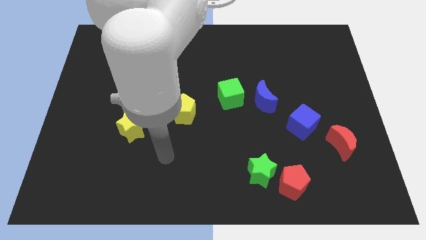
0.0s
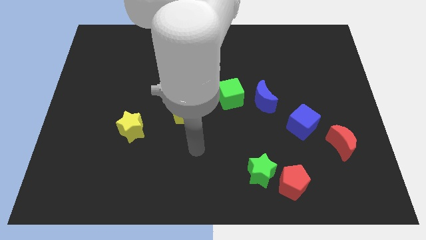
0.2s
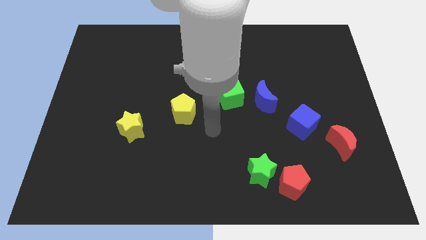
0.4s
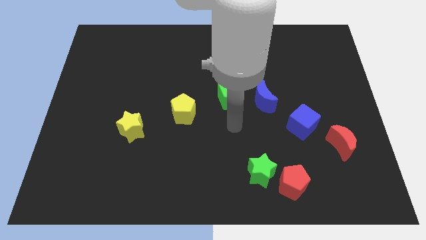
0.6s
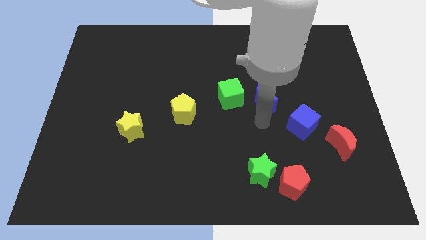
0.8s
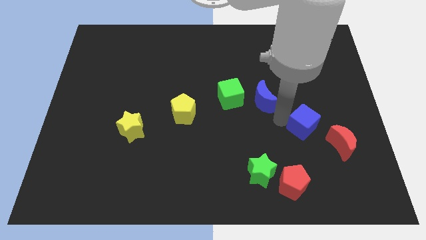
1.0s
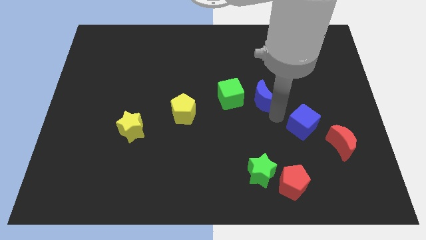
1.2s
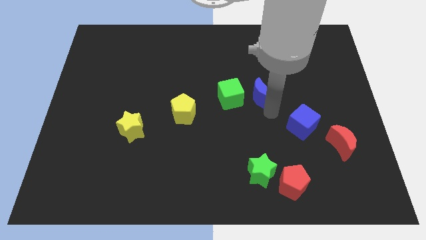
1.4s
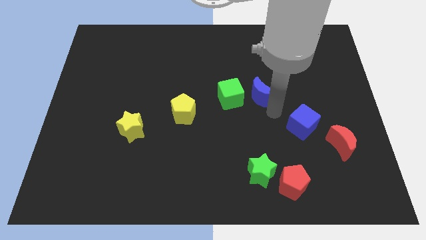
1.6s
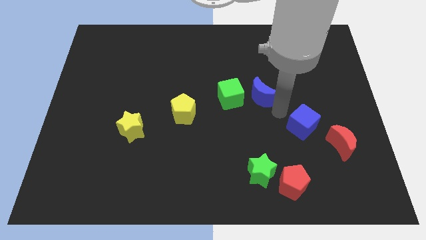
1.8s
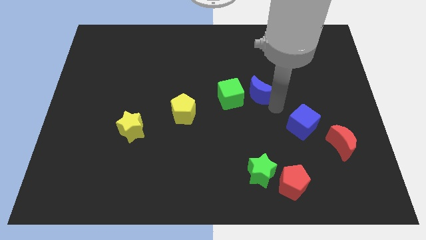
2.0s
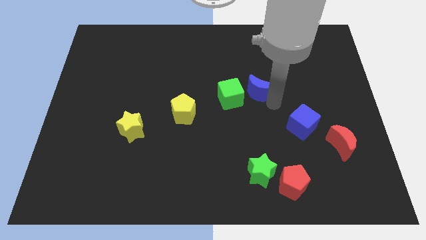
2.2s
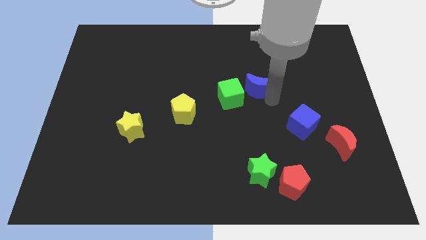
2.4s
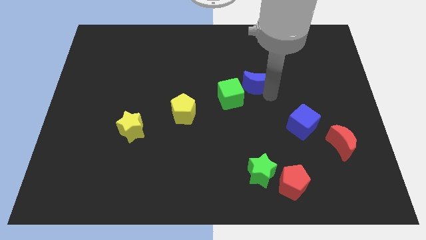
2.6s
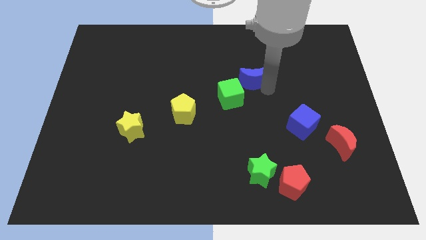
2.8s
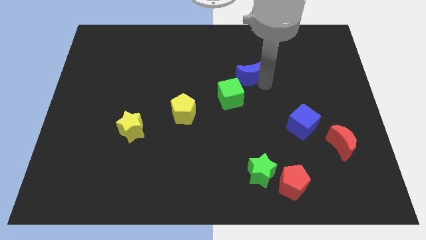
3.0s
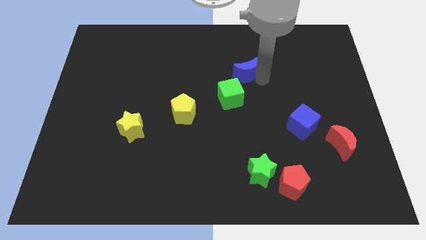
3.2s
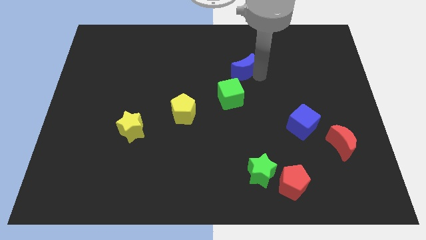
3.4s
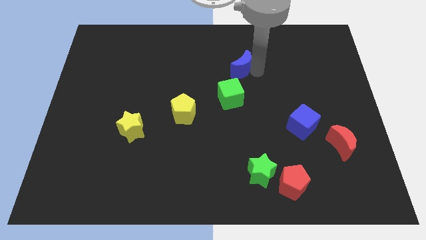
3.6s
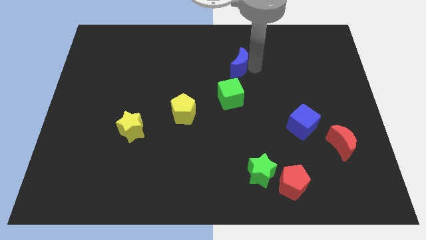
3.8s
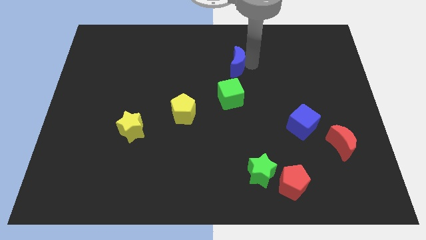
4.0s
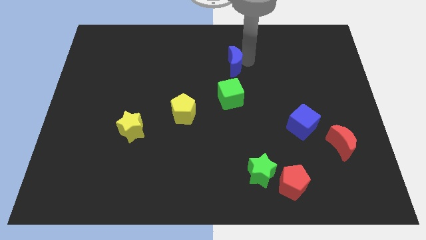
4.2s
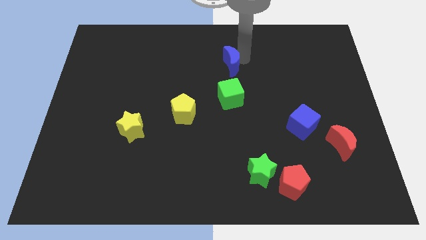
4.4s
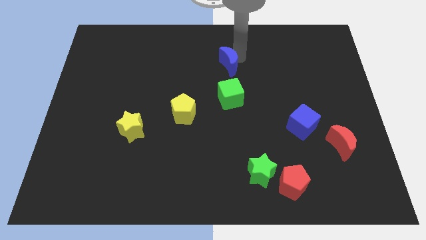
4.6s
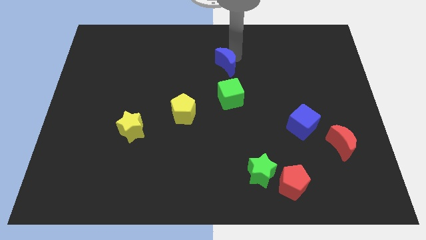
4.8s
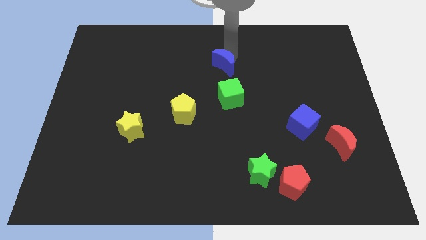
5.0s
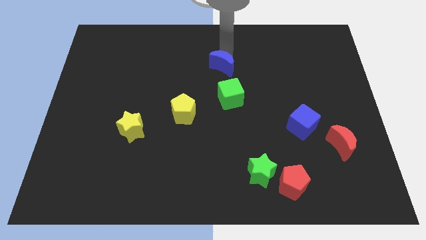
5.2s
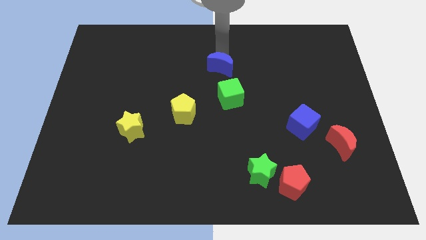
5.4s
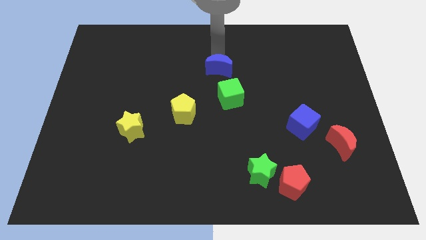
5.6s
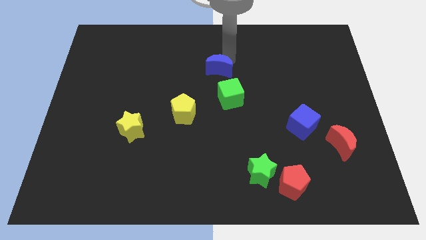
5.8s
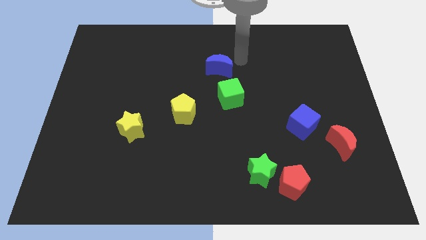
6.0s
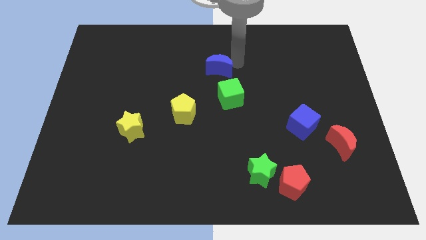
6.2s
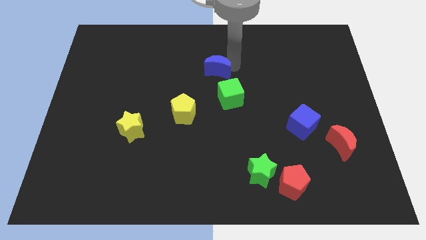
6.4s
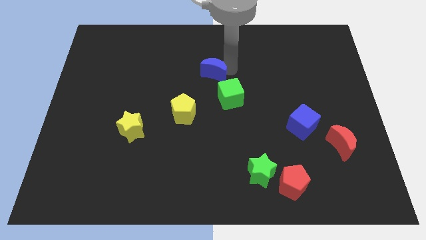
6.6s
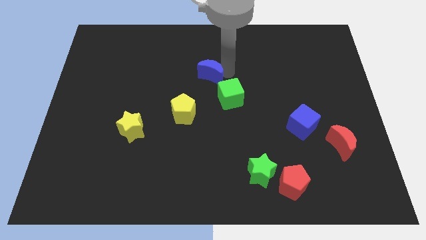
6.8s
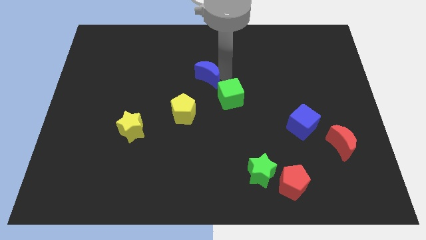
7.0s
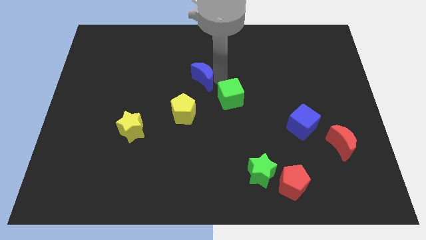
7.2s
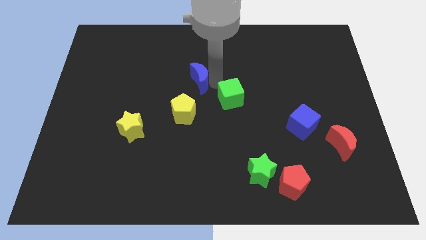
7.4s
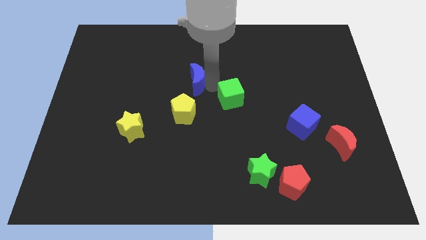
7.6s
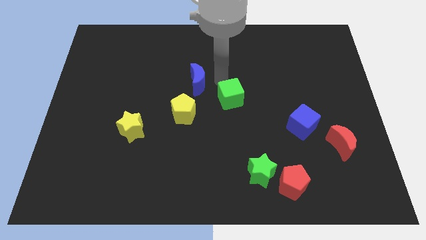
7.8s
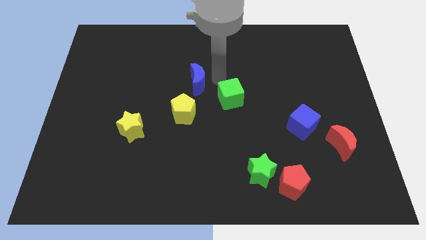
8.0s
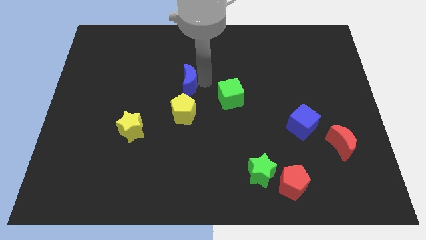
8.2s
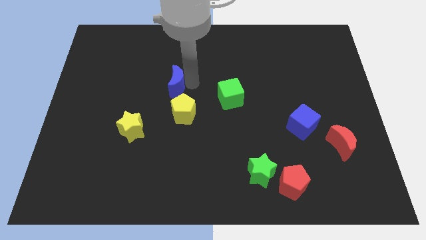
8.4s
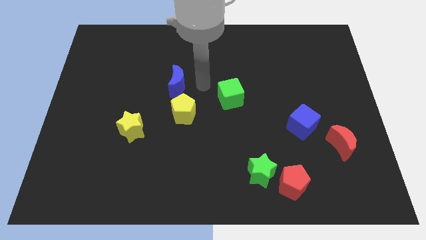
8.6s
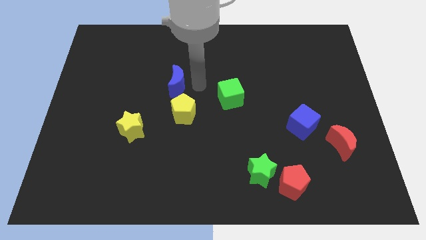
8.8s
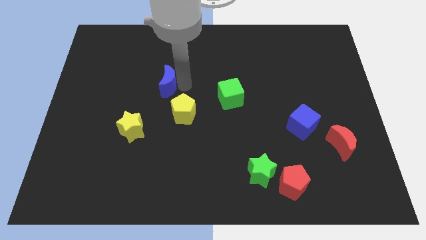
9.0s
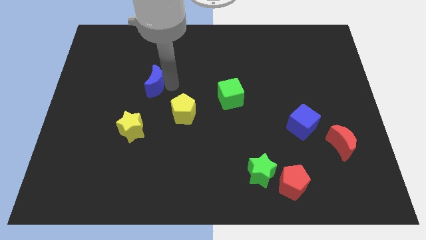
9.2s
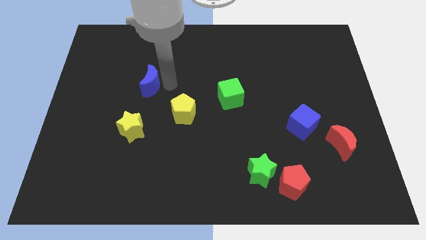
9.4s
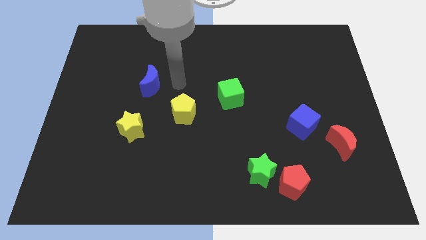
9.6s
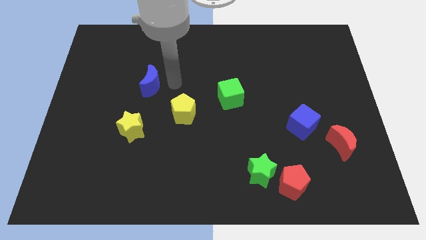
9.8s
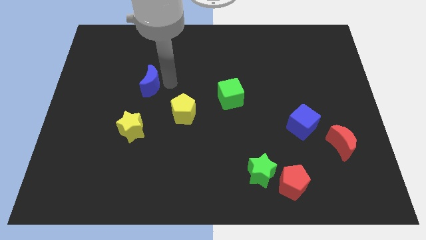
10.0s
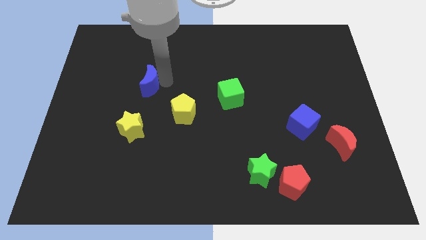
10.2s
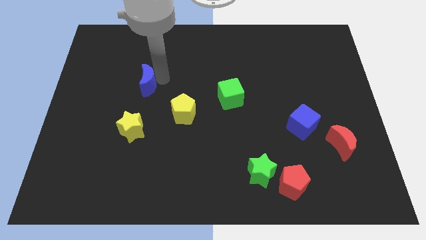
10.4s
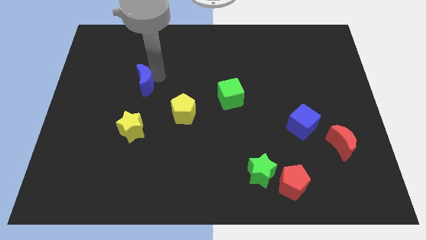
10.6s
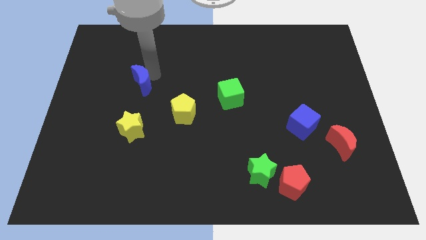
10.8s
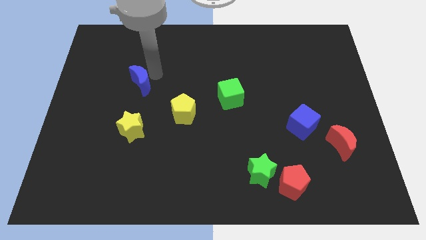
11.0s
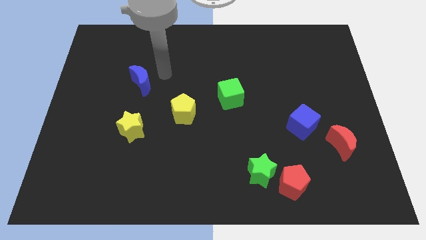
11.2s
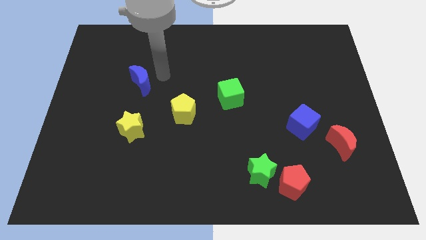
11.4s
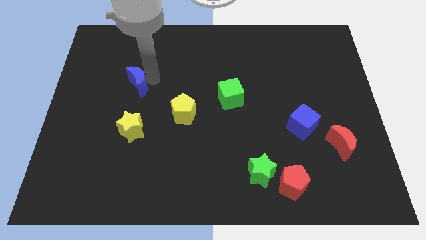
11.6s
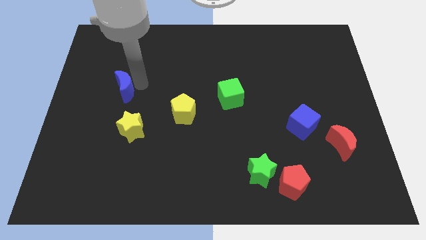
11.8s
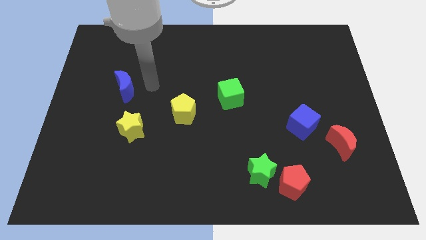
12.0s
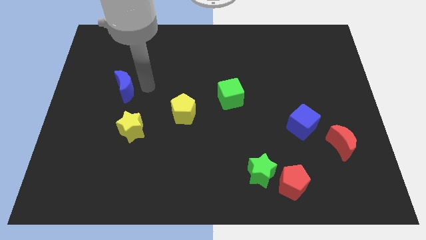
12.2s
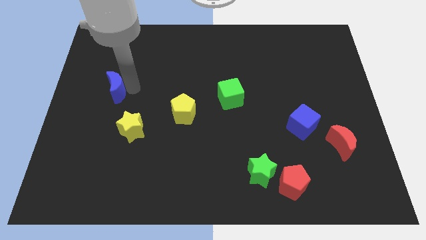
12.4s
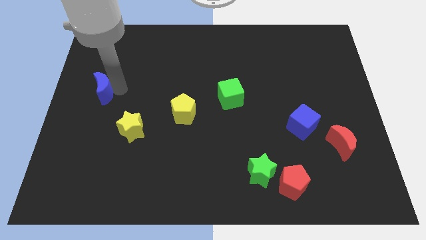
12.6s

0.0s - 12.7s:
push the blue moon to the left side
